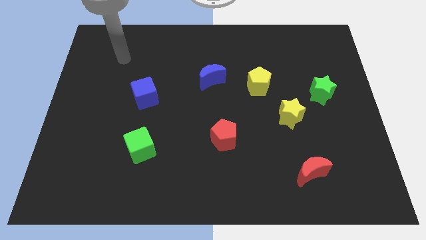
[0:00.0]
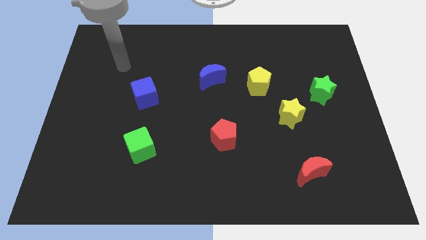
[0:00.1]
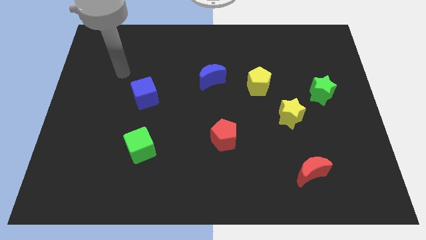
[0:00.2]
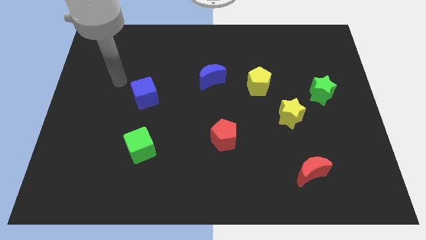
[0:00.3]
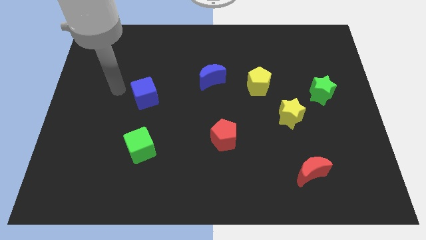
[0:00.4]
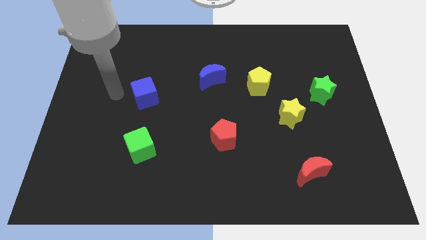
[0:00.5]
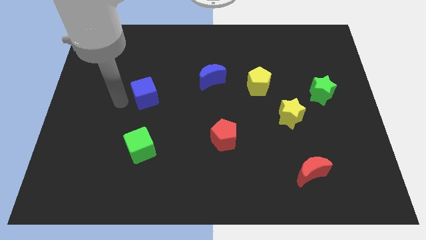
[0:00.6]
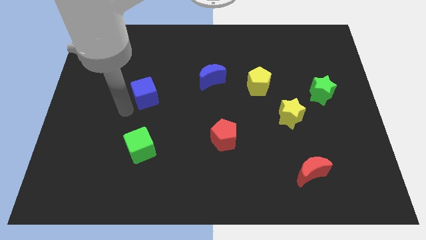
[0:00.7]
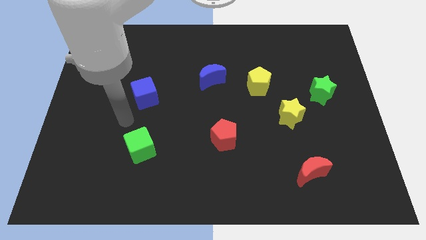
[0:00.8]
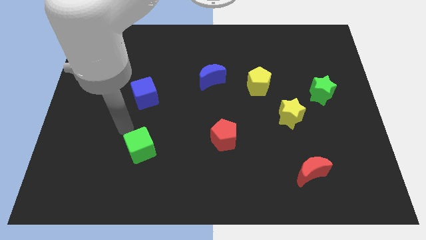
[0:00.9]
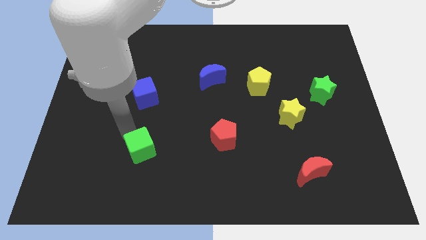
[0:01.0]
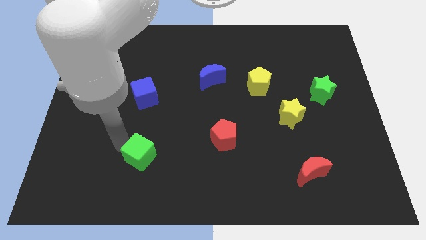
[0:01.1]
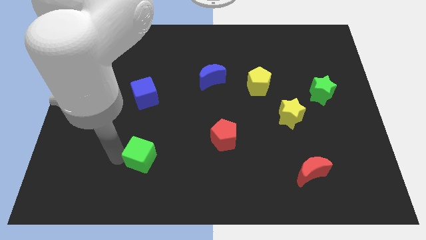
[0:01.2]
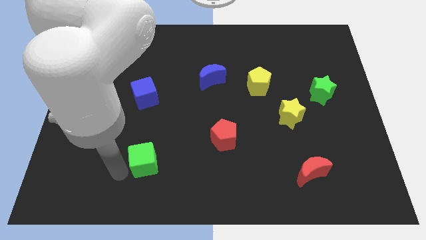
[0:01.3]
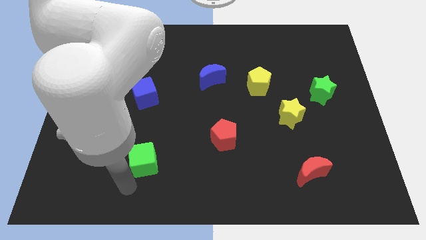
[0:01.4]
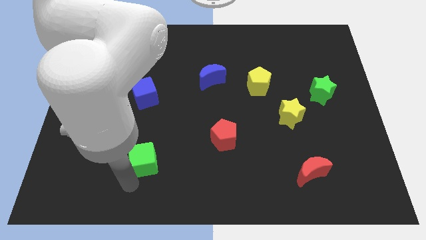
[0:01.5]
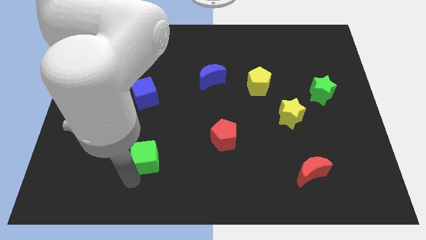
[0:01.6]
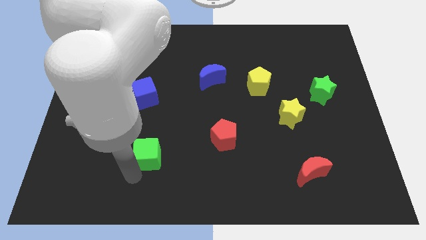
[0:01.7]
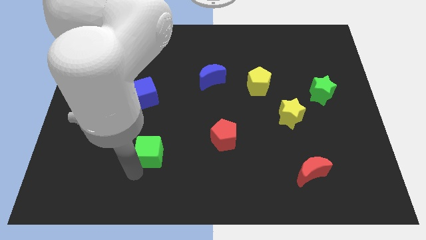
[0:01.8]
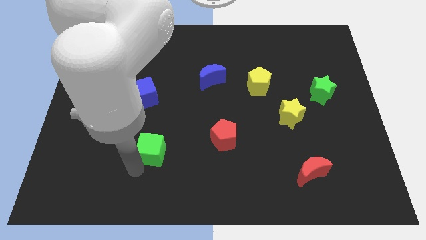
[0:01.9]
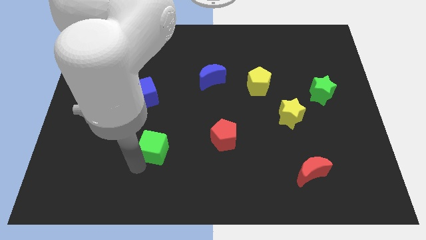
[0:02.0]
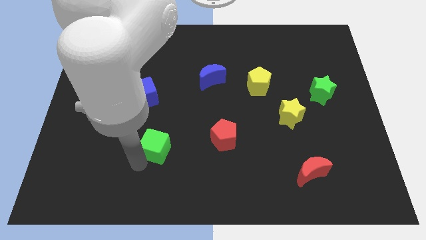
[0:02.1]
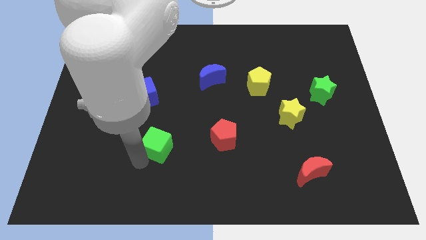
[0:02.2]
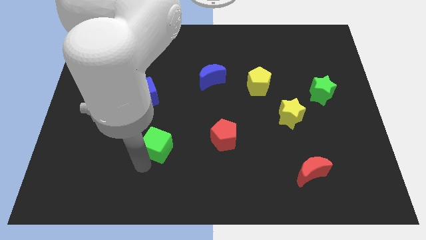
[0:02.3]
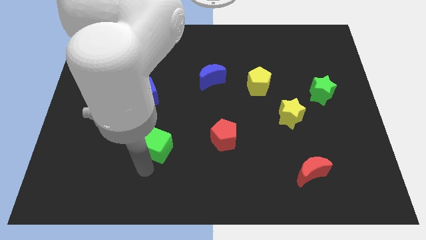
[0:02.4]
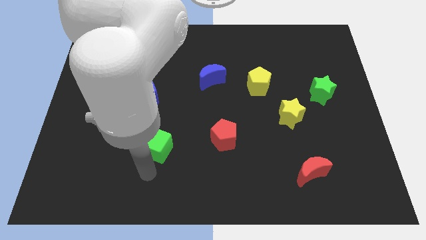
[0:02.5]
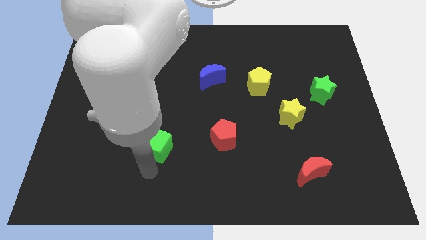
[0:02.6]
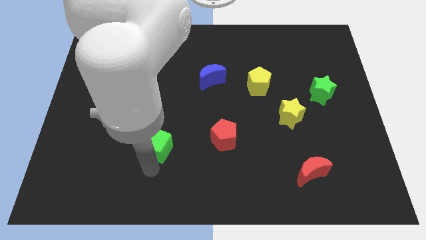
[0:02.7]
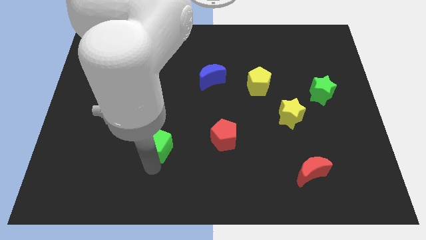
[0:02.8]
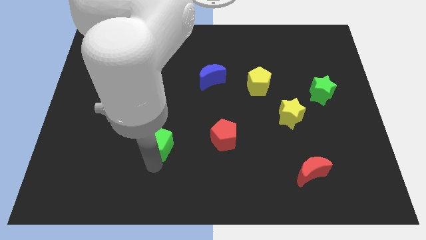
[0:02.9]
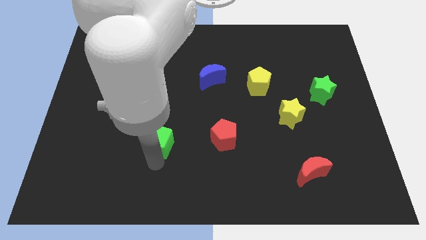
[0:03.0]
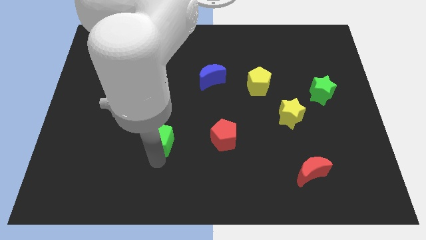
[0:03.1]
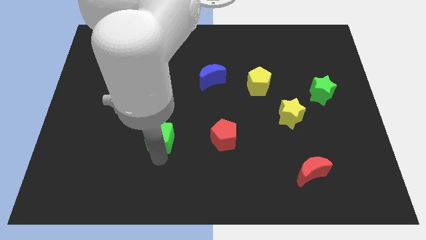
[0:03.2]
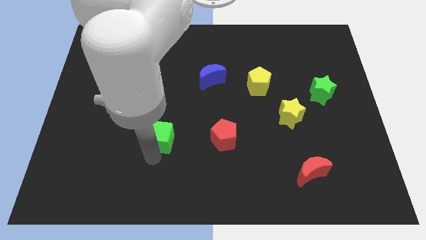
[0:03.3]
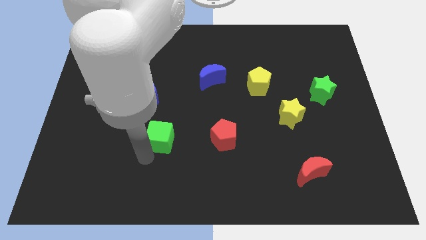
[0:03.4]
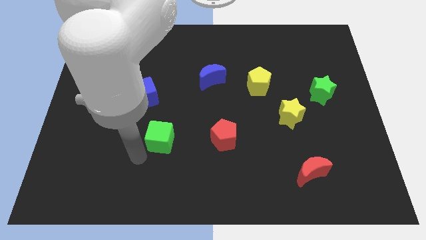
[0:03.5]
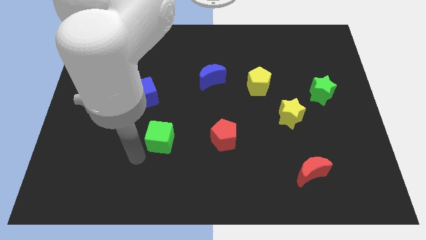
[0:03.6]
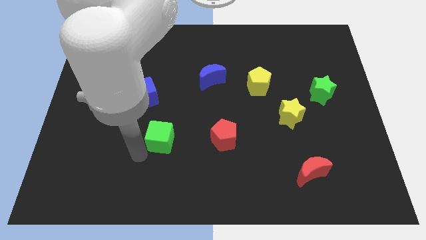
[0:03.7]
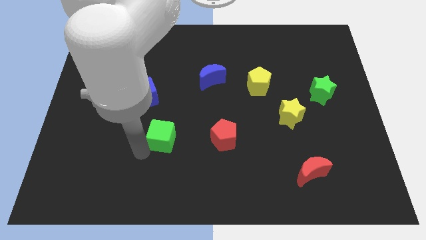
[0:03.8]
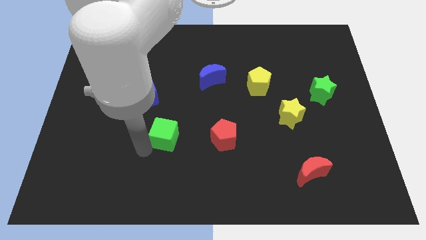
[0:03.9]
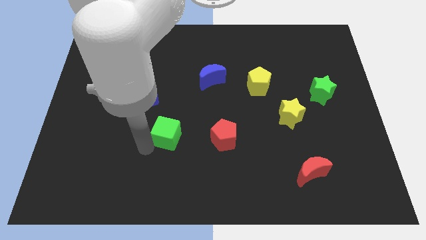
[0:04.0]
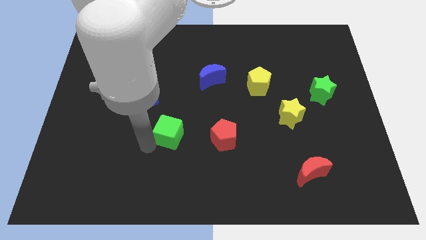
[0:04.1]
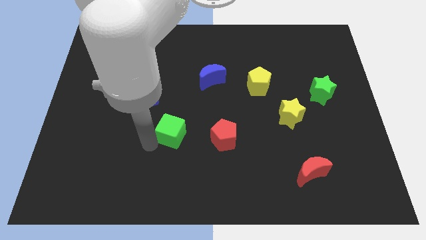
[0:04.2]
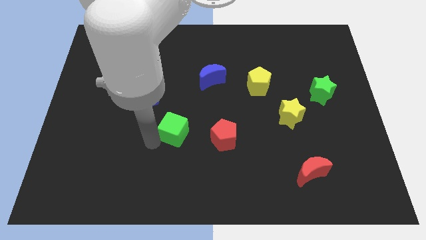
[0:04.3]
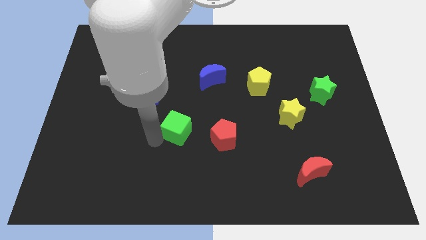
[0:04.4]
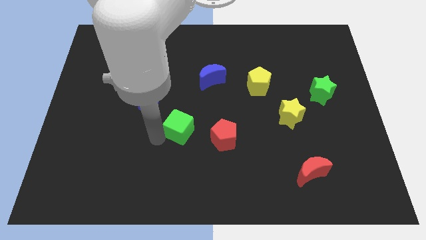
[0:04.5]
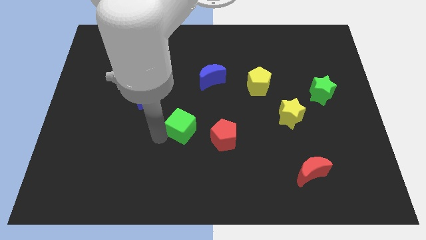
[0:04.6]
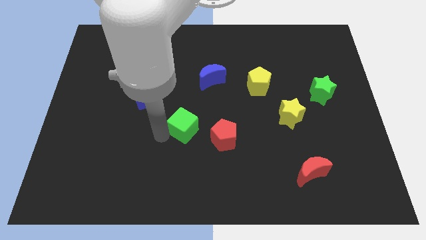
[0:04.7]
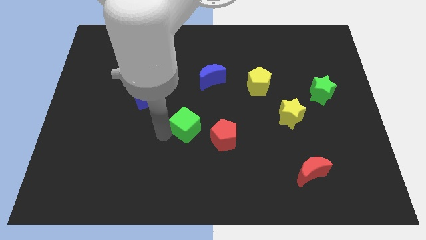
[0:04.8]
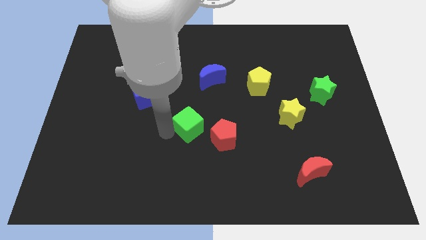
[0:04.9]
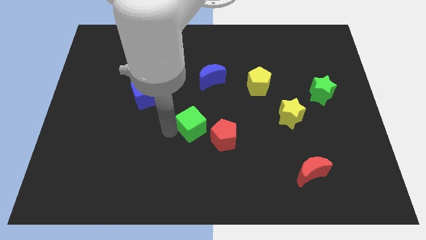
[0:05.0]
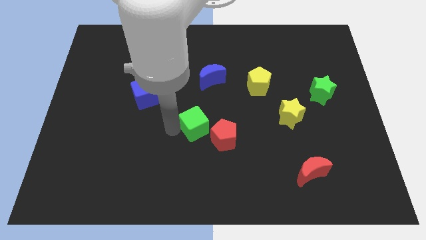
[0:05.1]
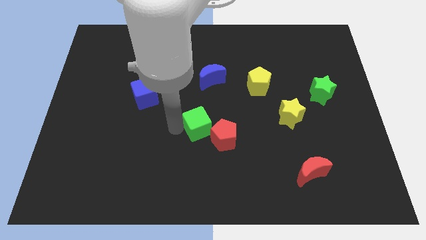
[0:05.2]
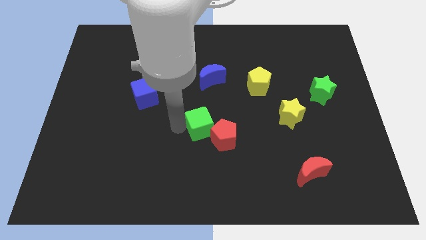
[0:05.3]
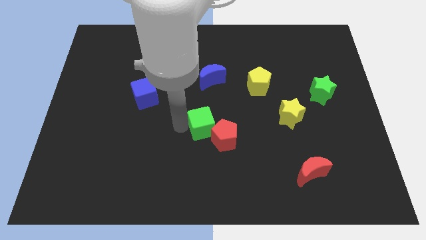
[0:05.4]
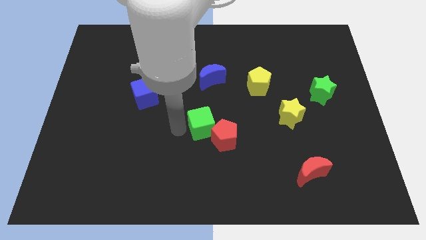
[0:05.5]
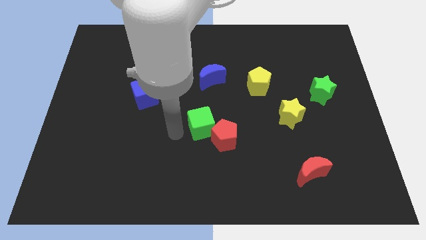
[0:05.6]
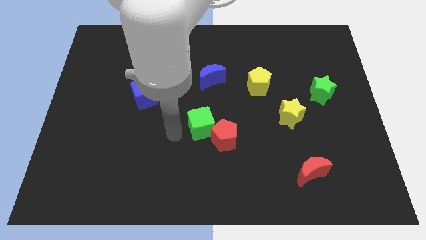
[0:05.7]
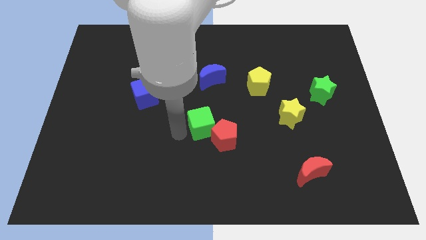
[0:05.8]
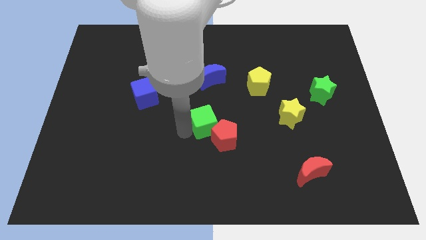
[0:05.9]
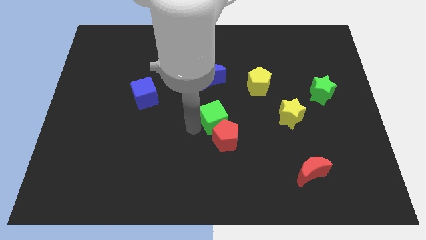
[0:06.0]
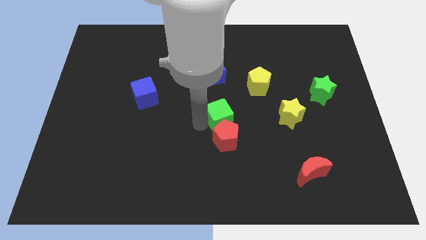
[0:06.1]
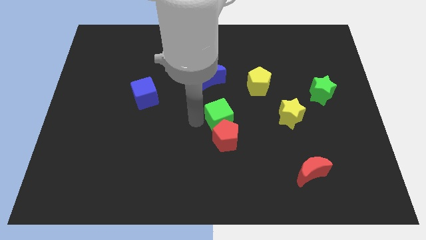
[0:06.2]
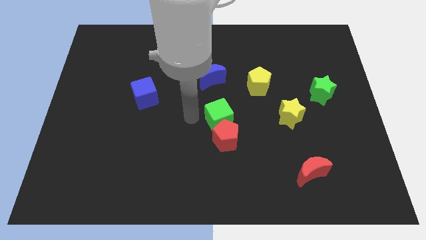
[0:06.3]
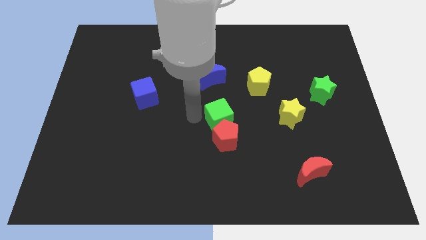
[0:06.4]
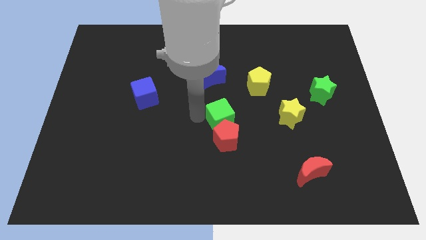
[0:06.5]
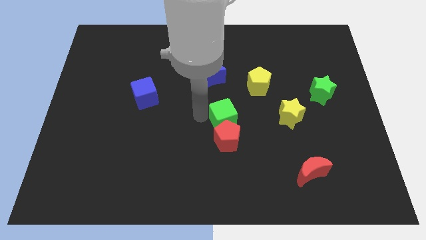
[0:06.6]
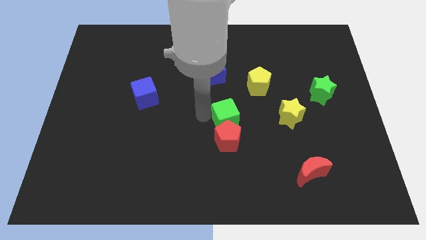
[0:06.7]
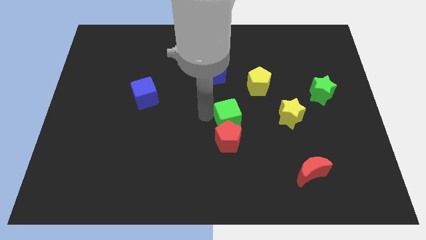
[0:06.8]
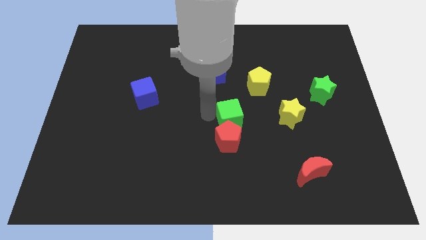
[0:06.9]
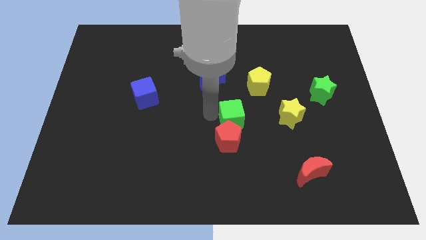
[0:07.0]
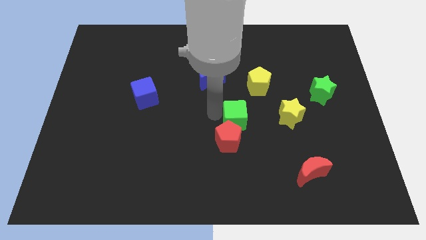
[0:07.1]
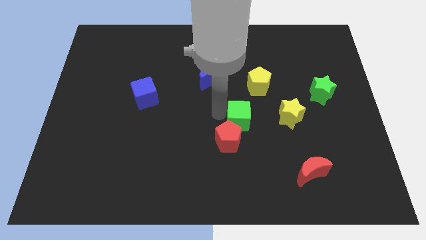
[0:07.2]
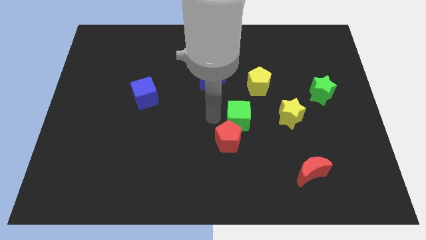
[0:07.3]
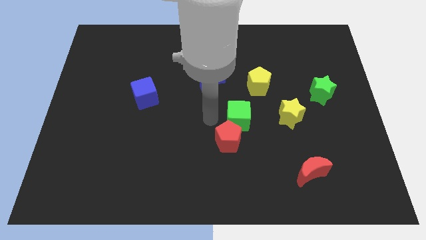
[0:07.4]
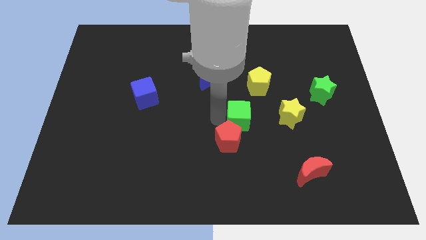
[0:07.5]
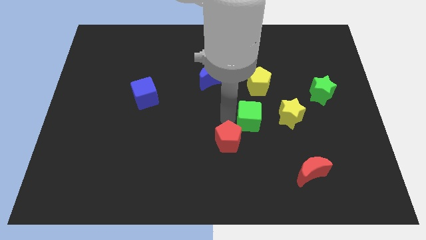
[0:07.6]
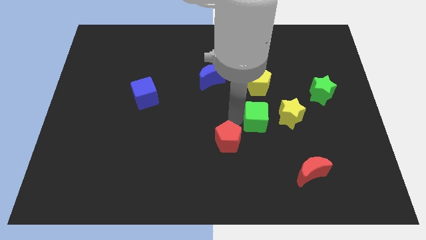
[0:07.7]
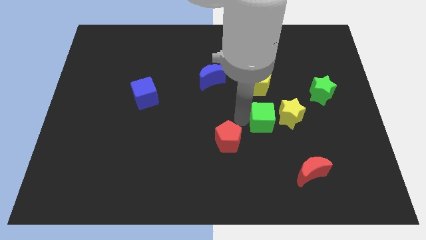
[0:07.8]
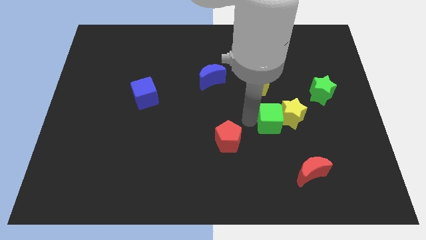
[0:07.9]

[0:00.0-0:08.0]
slide the green cube towards the yellow star
